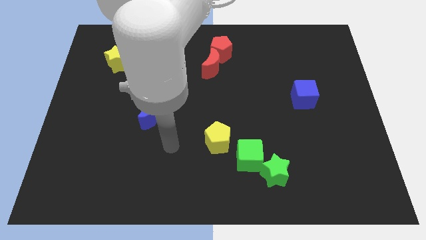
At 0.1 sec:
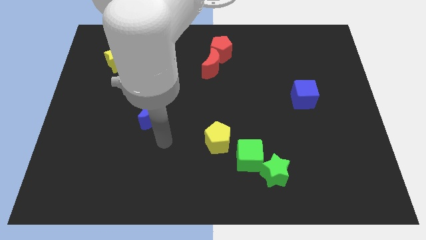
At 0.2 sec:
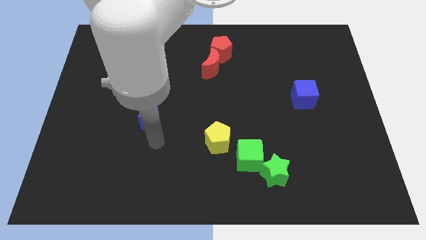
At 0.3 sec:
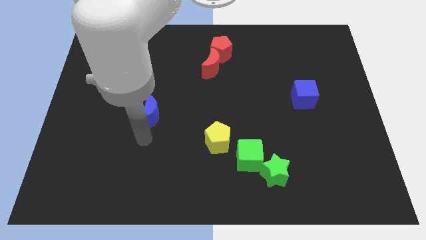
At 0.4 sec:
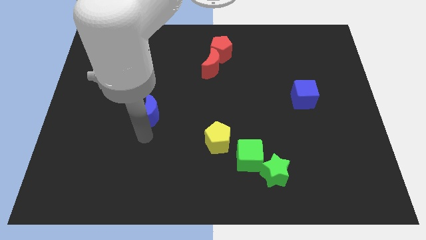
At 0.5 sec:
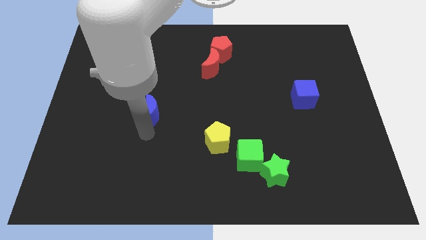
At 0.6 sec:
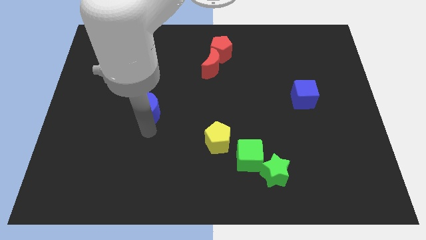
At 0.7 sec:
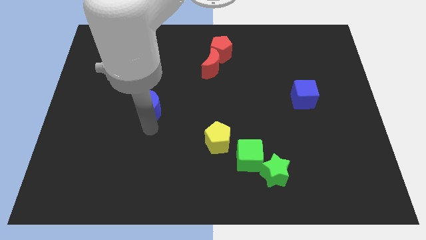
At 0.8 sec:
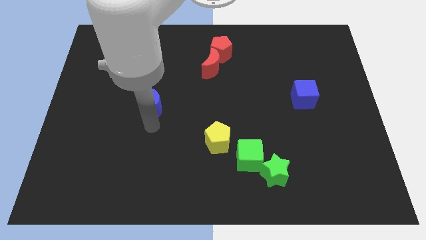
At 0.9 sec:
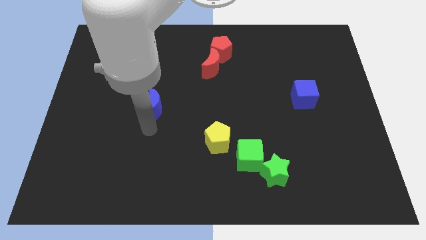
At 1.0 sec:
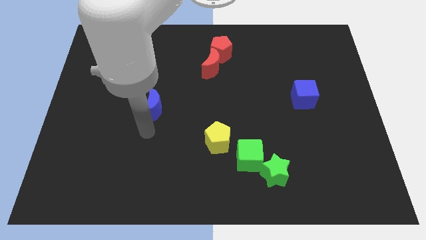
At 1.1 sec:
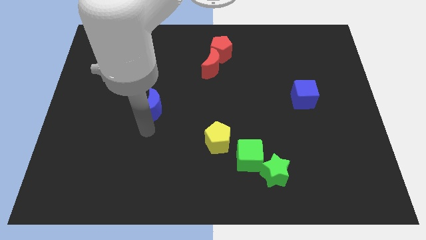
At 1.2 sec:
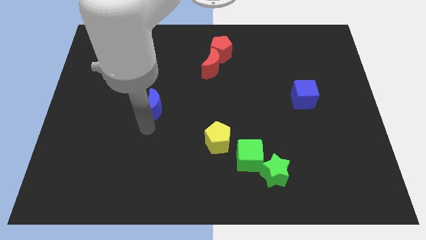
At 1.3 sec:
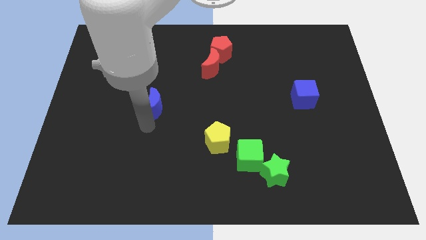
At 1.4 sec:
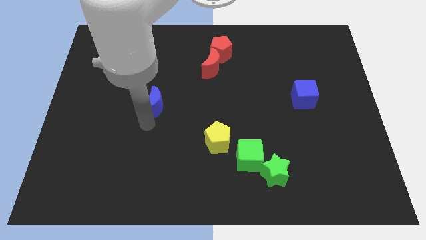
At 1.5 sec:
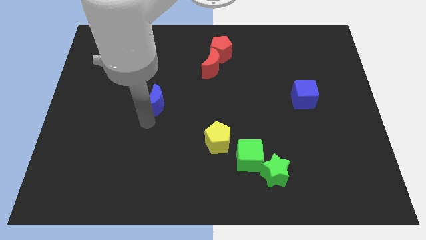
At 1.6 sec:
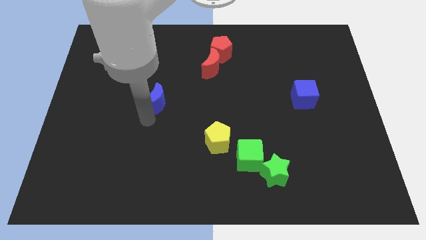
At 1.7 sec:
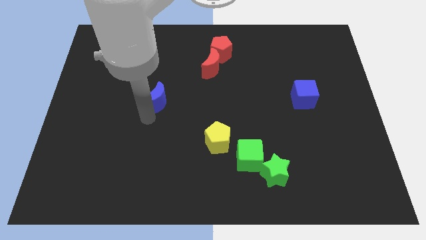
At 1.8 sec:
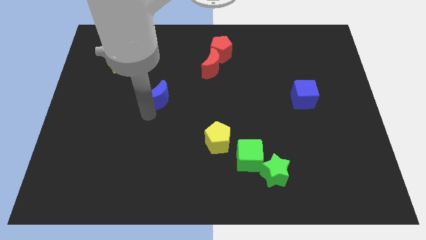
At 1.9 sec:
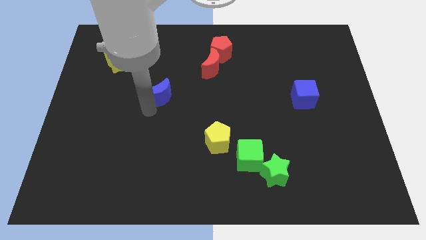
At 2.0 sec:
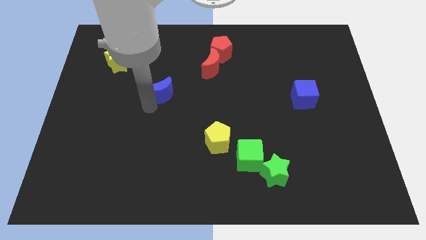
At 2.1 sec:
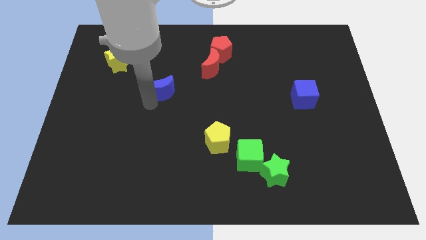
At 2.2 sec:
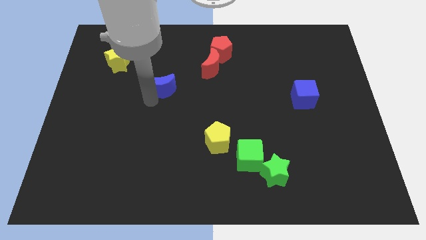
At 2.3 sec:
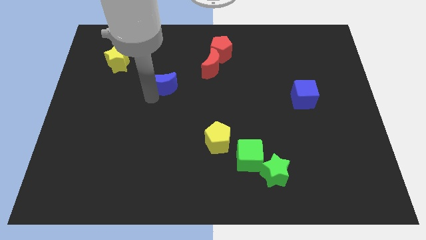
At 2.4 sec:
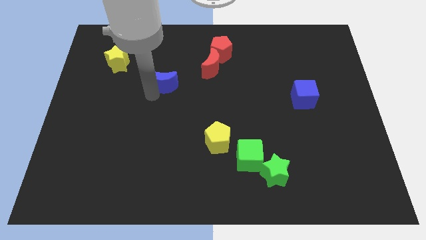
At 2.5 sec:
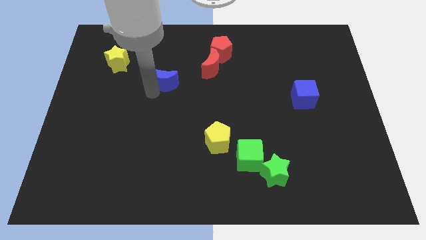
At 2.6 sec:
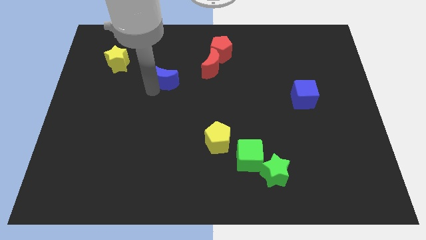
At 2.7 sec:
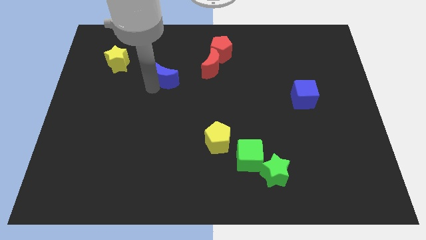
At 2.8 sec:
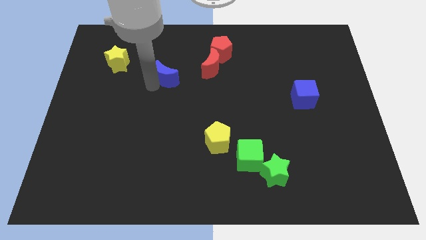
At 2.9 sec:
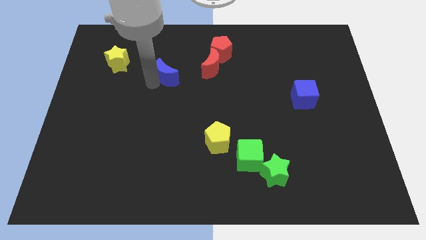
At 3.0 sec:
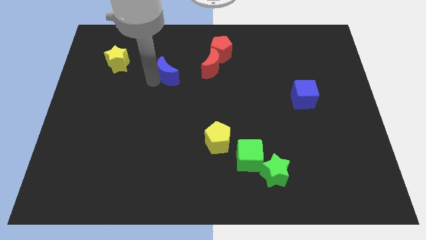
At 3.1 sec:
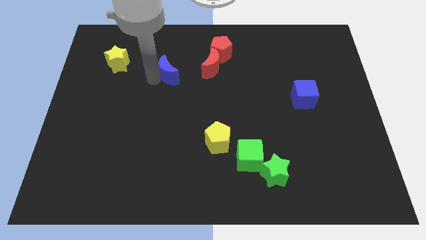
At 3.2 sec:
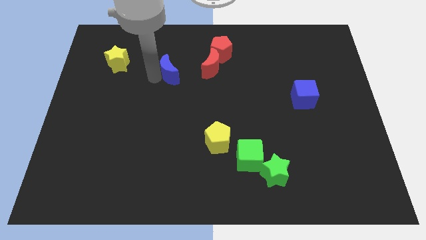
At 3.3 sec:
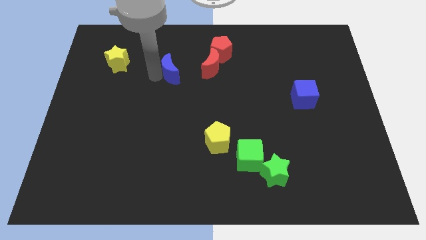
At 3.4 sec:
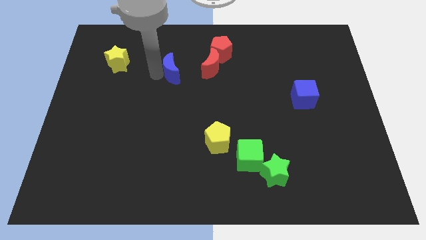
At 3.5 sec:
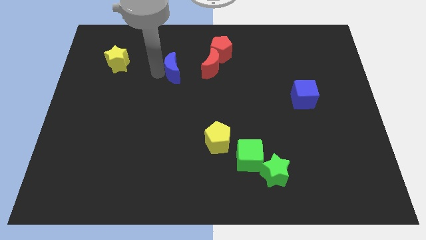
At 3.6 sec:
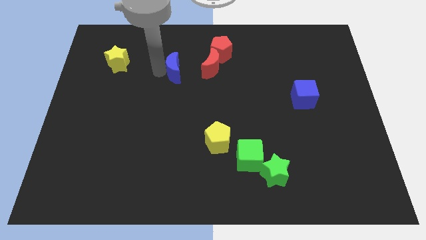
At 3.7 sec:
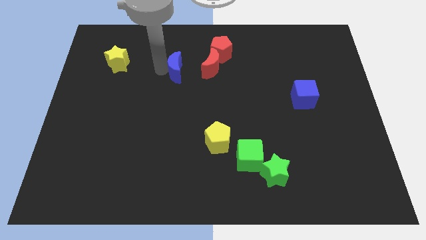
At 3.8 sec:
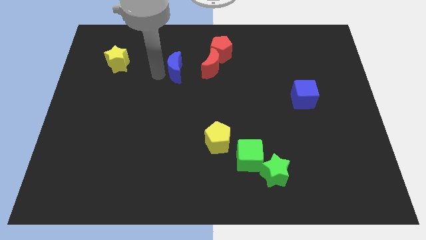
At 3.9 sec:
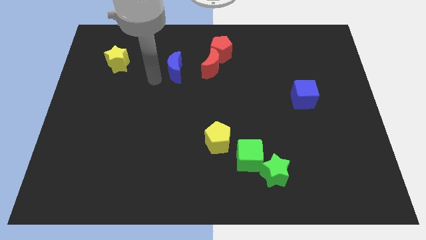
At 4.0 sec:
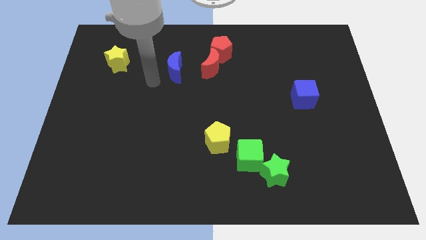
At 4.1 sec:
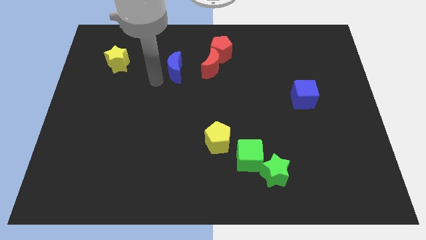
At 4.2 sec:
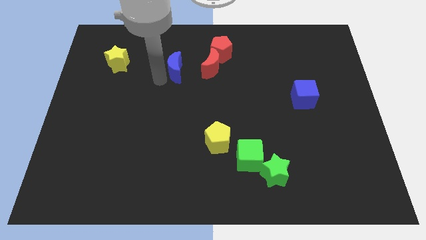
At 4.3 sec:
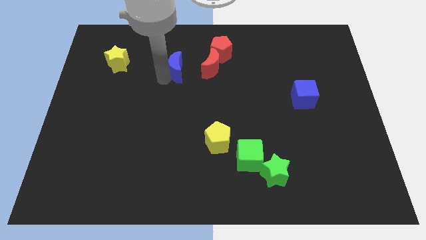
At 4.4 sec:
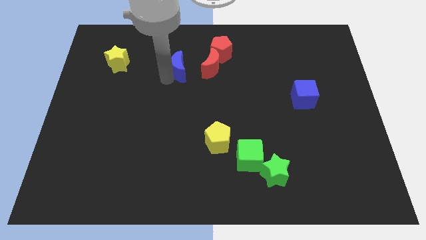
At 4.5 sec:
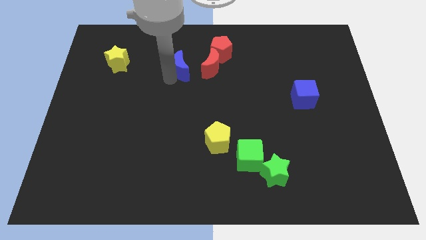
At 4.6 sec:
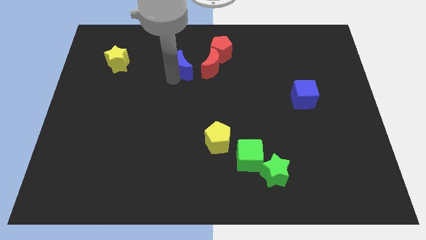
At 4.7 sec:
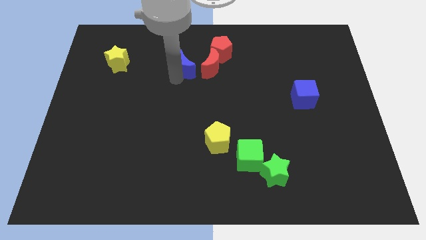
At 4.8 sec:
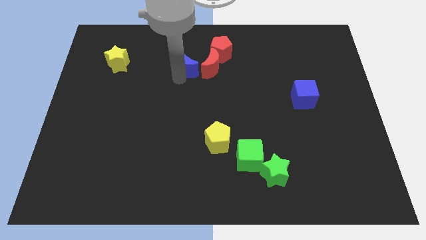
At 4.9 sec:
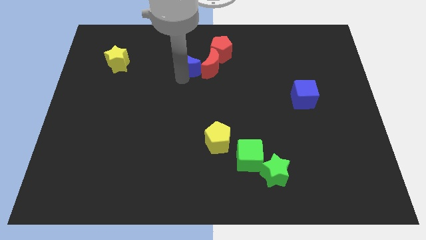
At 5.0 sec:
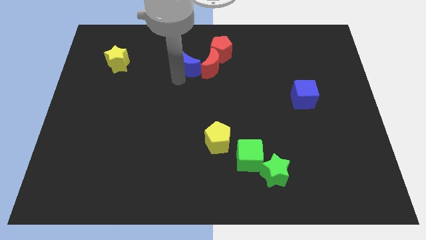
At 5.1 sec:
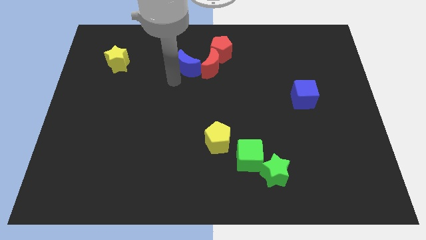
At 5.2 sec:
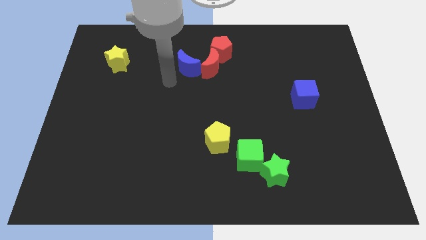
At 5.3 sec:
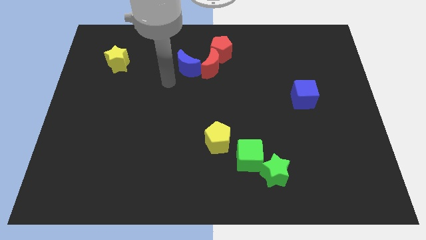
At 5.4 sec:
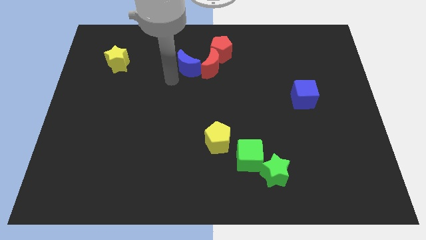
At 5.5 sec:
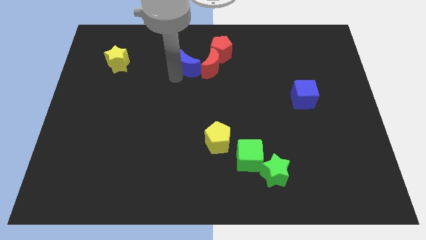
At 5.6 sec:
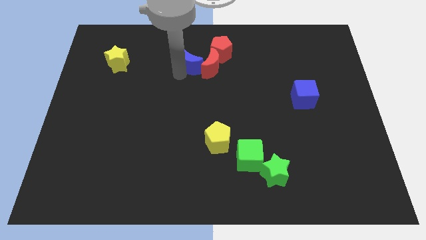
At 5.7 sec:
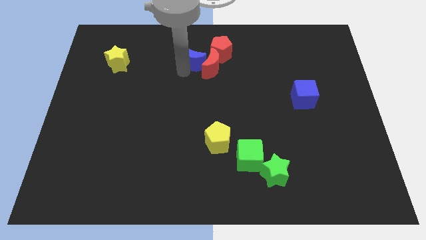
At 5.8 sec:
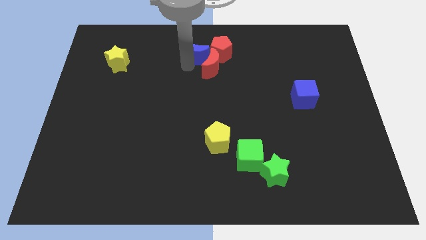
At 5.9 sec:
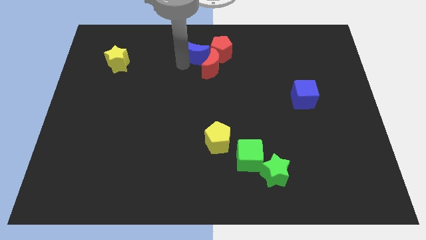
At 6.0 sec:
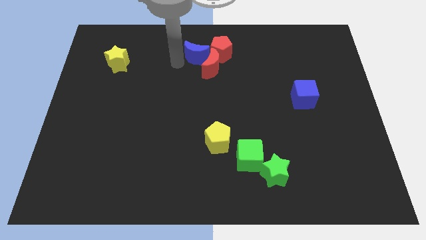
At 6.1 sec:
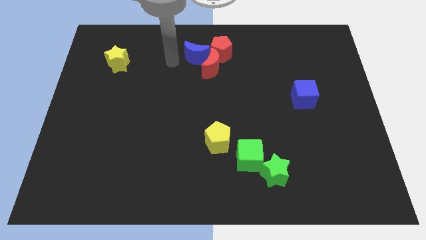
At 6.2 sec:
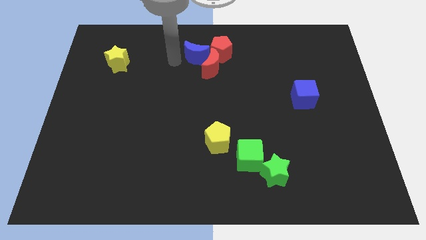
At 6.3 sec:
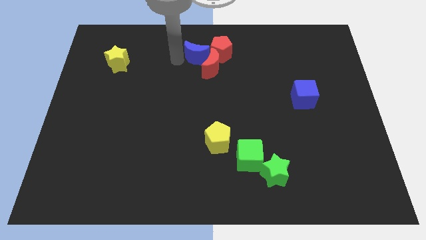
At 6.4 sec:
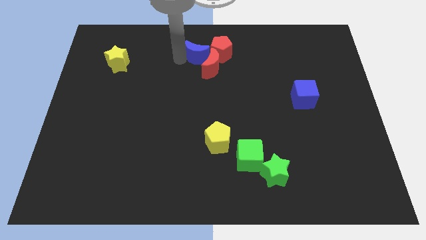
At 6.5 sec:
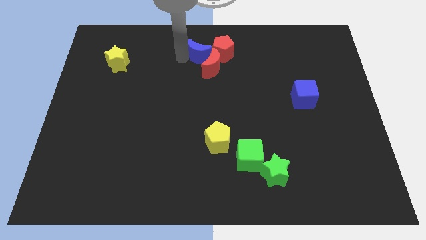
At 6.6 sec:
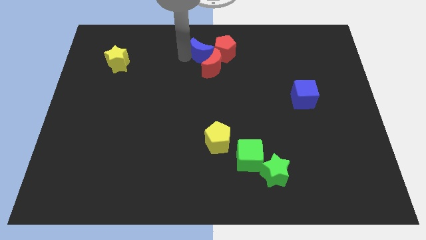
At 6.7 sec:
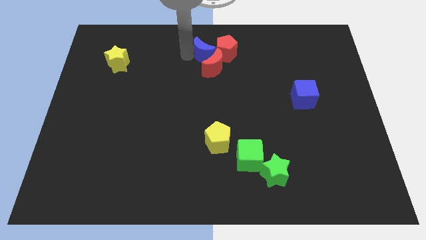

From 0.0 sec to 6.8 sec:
slide the blue moon towards the red pentagon

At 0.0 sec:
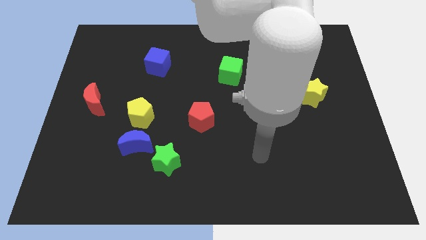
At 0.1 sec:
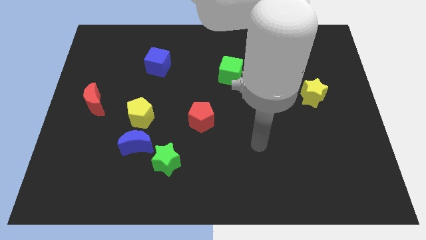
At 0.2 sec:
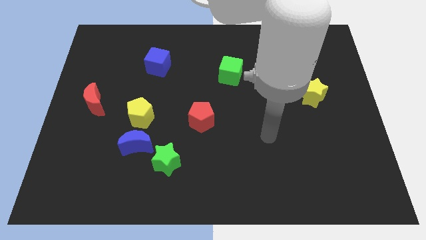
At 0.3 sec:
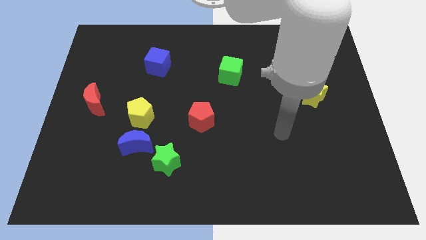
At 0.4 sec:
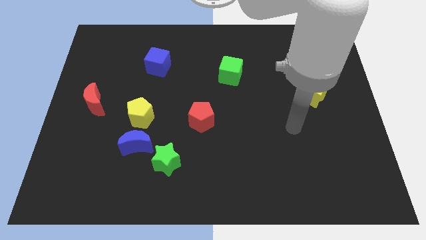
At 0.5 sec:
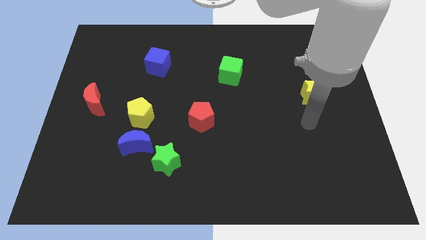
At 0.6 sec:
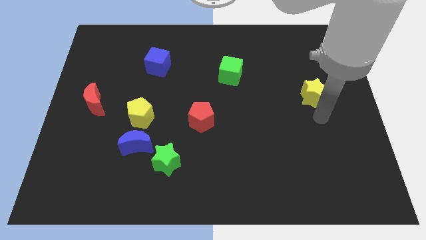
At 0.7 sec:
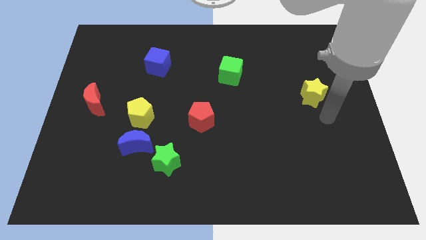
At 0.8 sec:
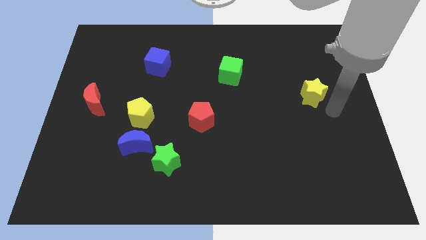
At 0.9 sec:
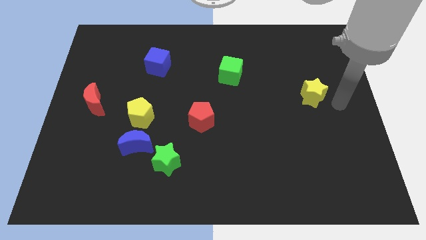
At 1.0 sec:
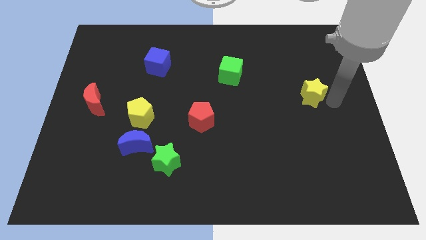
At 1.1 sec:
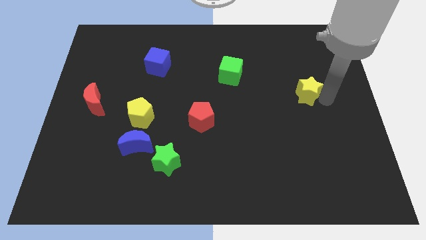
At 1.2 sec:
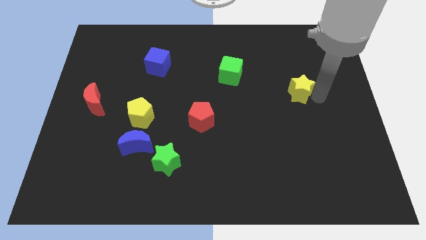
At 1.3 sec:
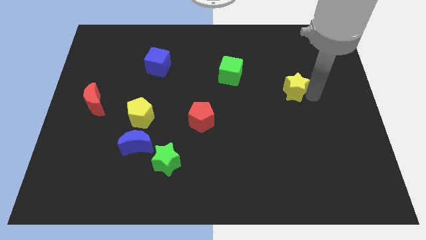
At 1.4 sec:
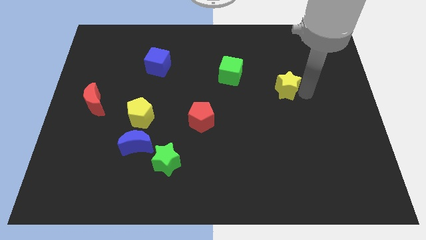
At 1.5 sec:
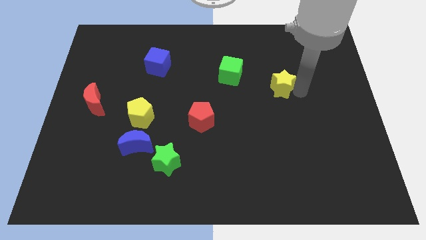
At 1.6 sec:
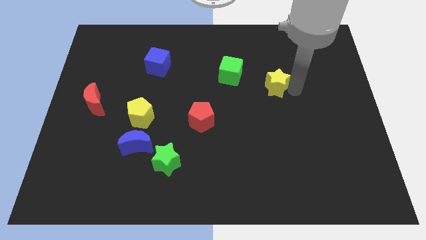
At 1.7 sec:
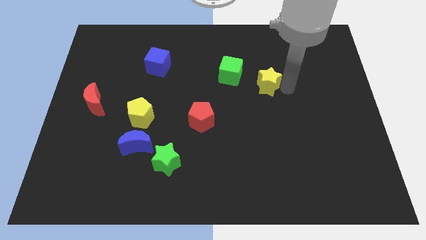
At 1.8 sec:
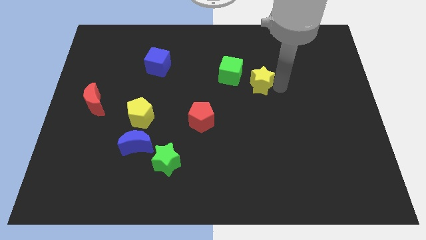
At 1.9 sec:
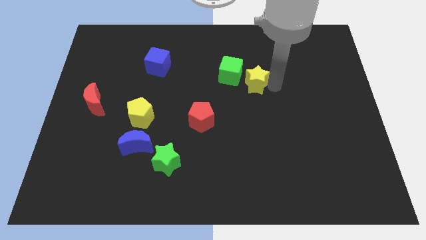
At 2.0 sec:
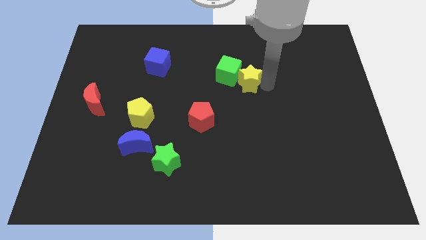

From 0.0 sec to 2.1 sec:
put the yellow star close to the green cube
